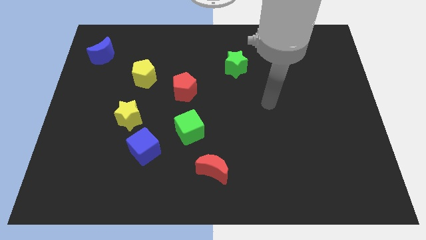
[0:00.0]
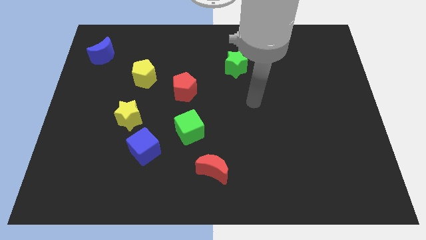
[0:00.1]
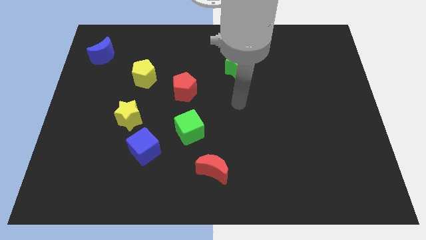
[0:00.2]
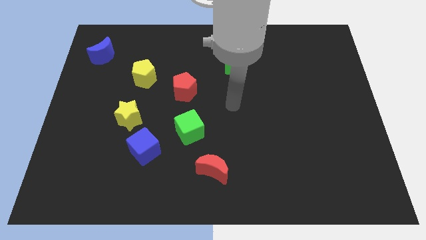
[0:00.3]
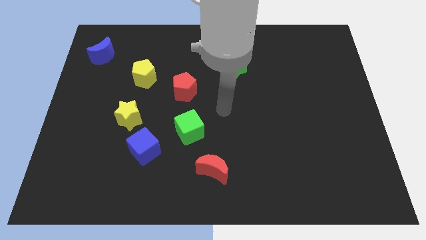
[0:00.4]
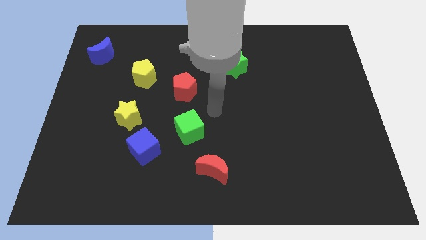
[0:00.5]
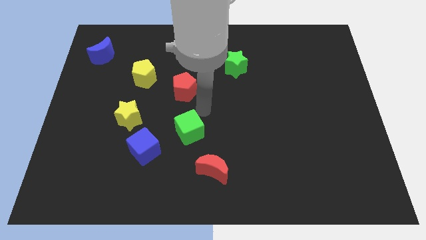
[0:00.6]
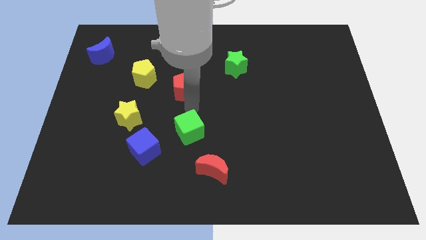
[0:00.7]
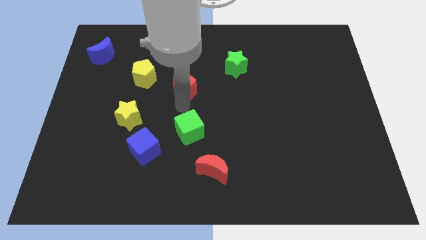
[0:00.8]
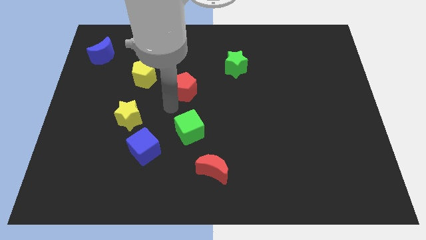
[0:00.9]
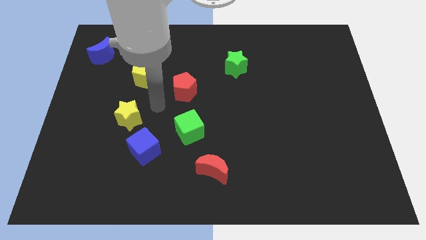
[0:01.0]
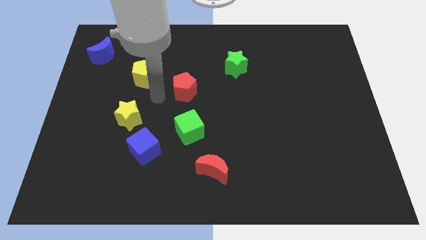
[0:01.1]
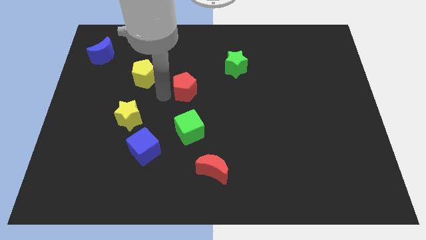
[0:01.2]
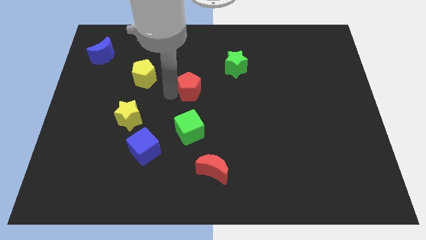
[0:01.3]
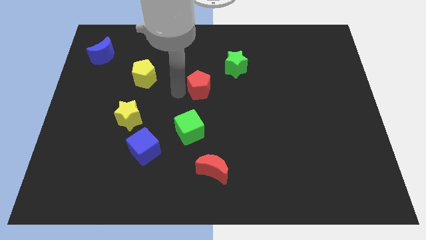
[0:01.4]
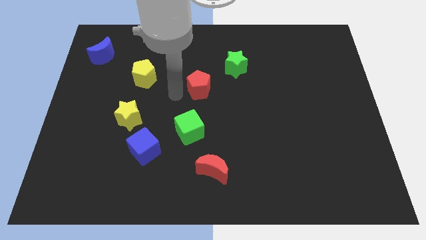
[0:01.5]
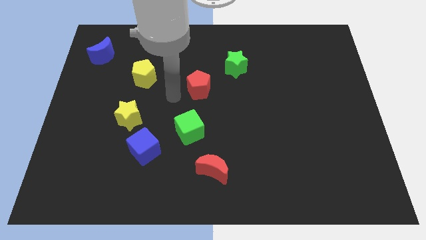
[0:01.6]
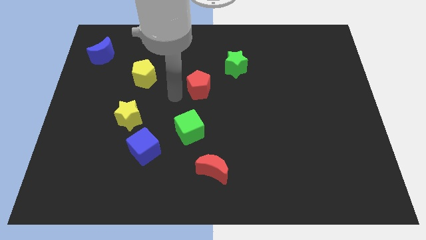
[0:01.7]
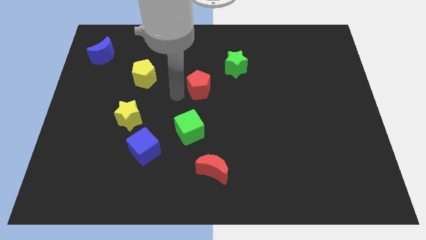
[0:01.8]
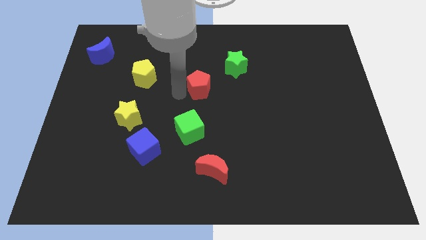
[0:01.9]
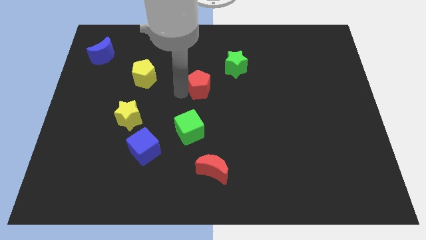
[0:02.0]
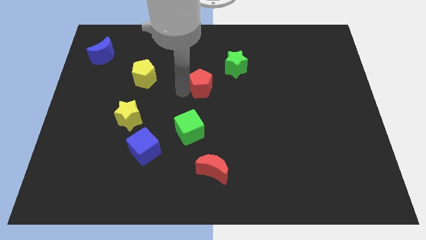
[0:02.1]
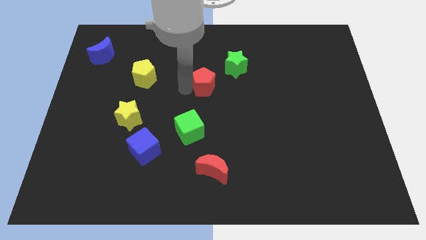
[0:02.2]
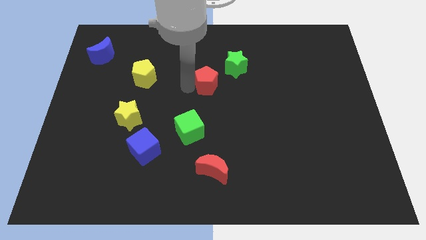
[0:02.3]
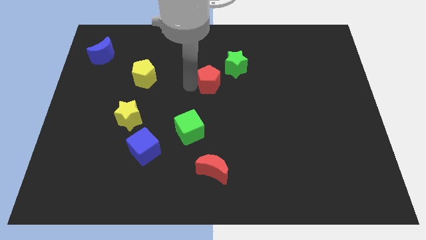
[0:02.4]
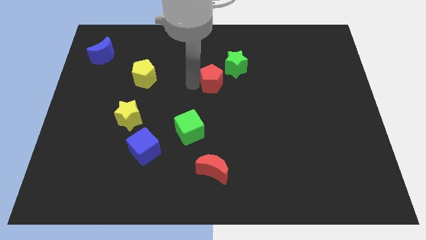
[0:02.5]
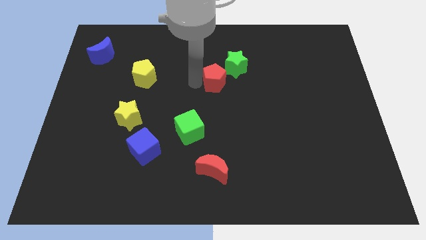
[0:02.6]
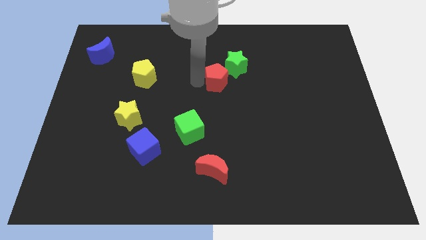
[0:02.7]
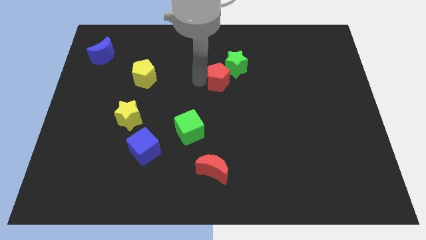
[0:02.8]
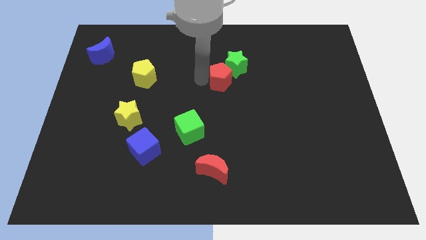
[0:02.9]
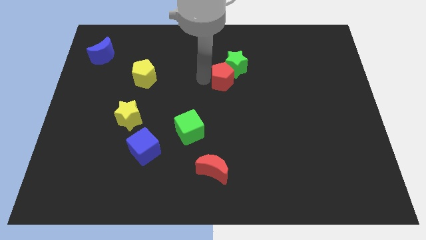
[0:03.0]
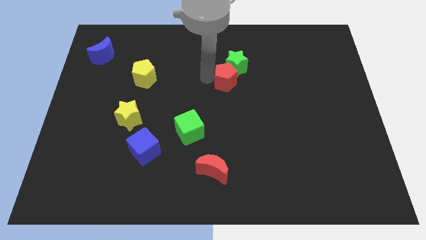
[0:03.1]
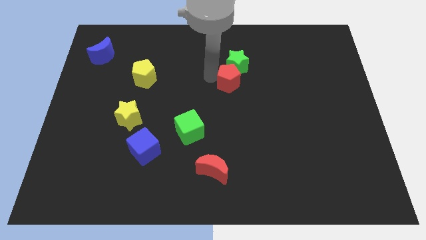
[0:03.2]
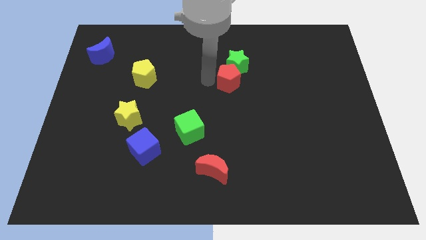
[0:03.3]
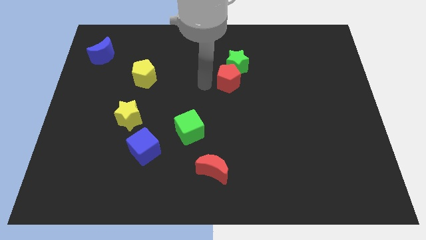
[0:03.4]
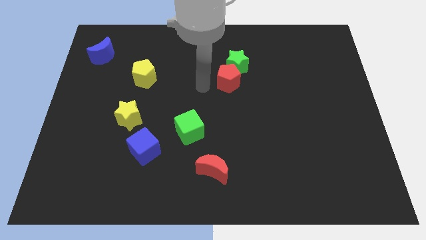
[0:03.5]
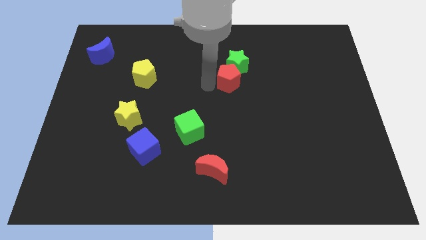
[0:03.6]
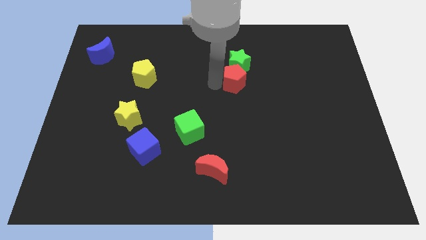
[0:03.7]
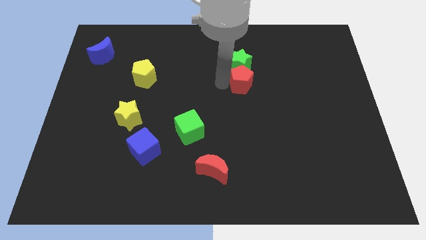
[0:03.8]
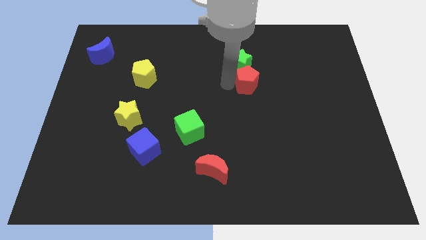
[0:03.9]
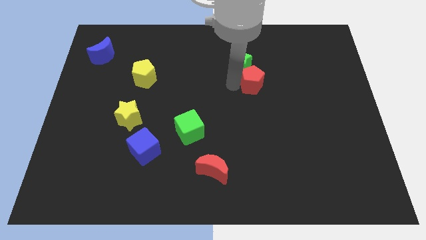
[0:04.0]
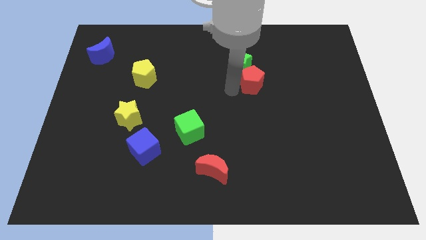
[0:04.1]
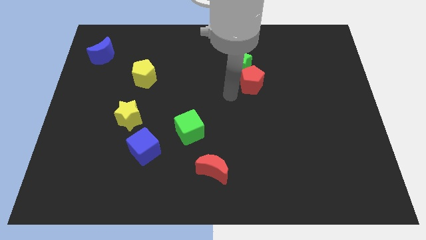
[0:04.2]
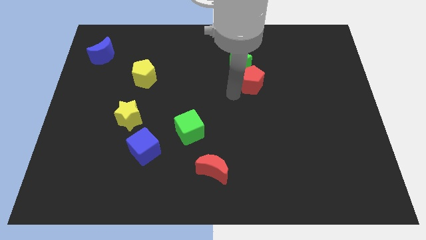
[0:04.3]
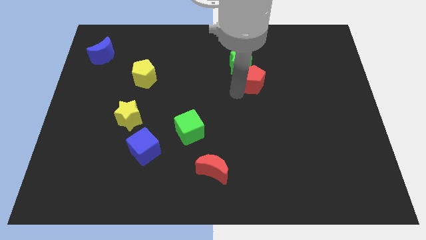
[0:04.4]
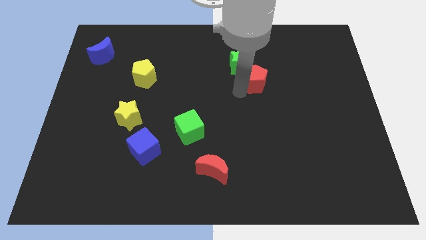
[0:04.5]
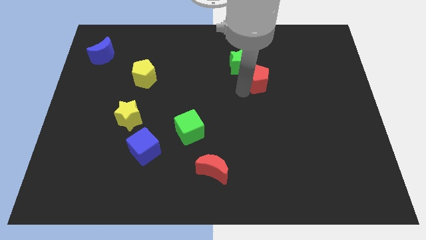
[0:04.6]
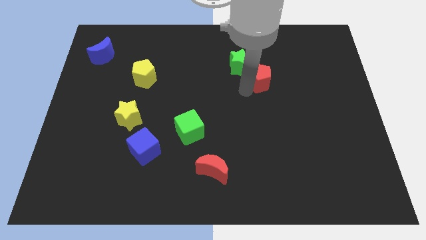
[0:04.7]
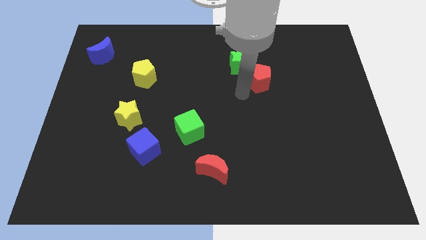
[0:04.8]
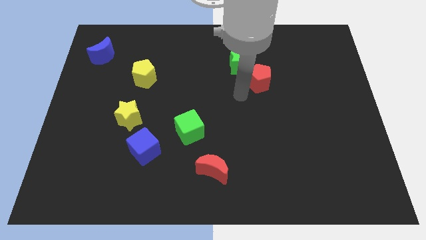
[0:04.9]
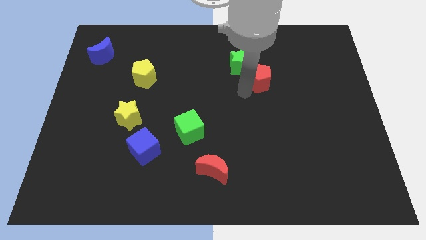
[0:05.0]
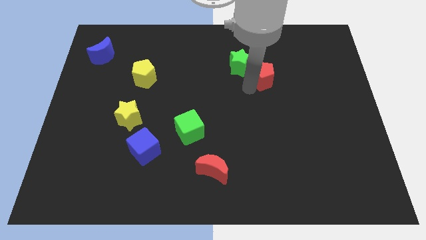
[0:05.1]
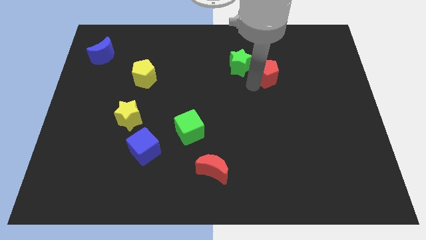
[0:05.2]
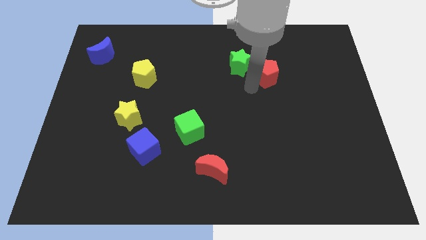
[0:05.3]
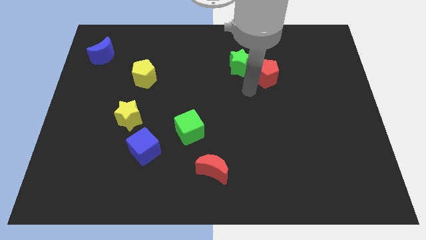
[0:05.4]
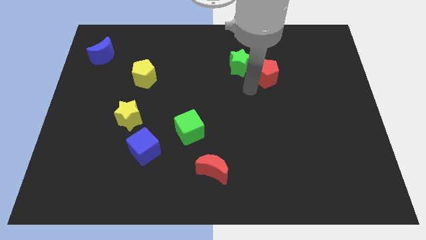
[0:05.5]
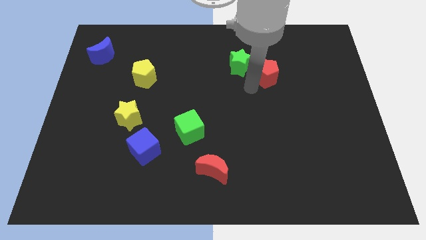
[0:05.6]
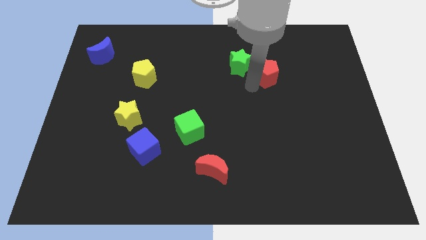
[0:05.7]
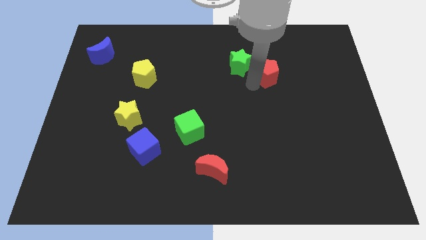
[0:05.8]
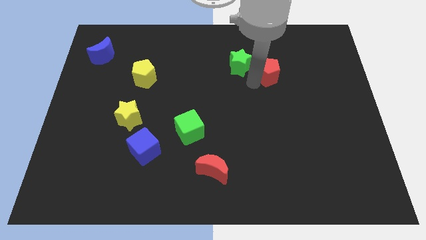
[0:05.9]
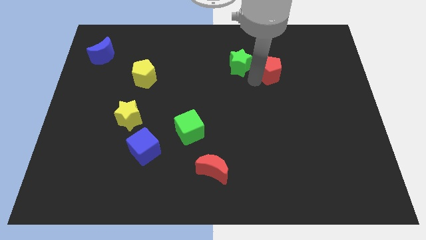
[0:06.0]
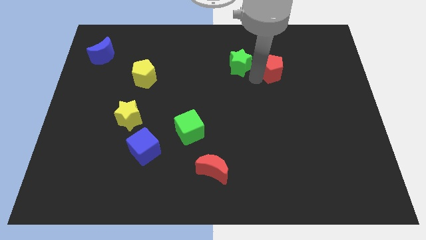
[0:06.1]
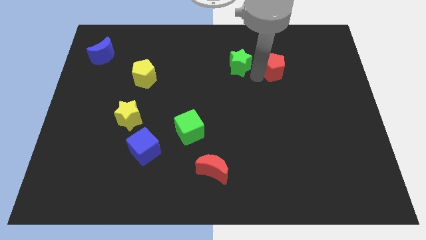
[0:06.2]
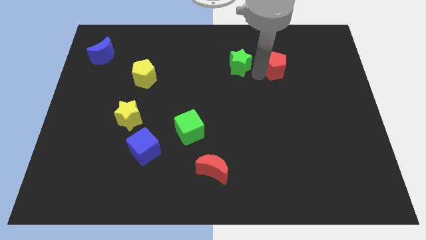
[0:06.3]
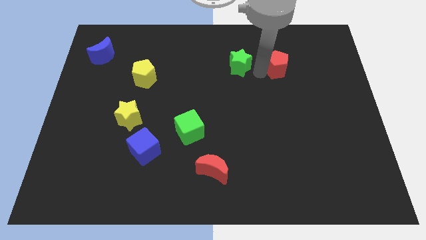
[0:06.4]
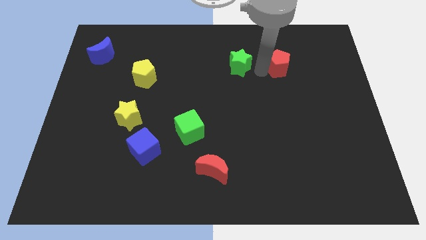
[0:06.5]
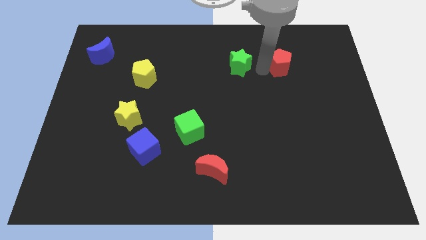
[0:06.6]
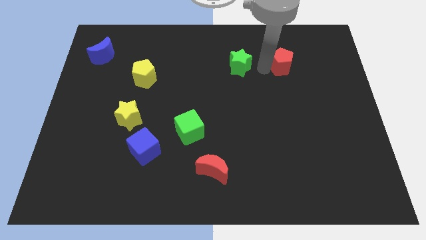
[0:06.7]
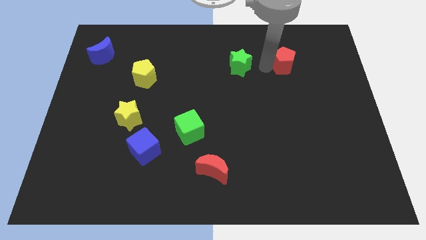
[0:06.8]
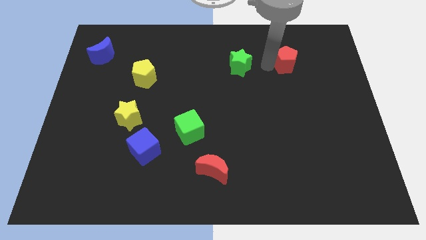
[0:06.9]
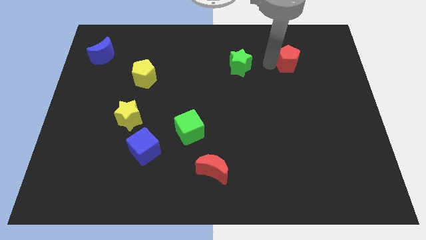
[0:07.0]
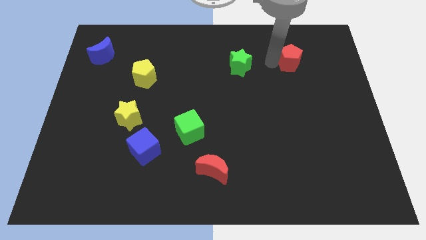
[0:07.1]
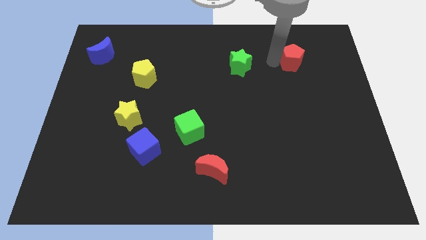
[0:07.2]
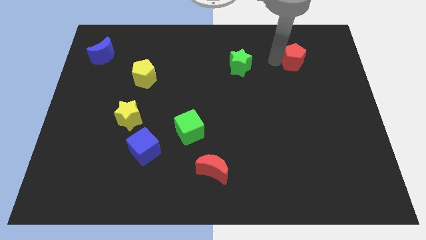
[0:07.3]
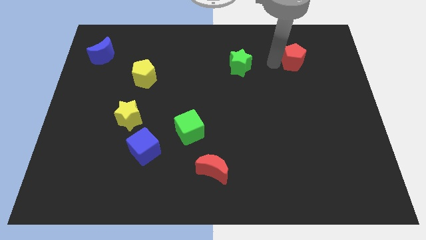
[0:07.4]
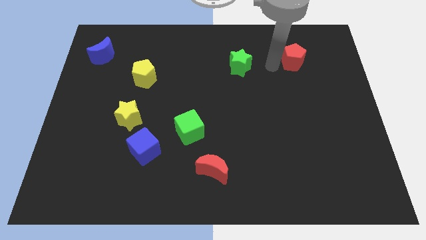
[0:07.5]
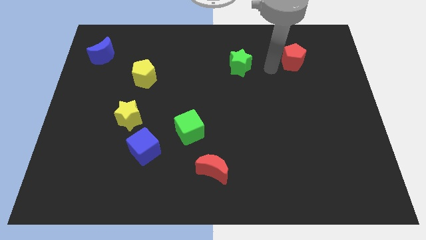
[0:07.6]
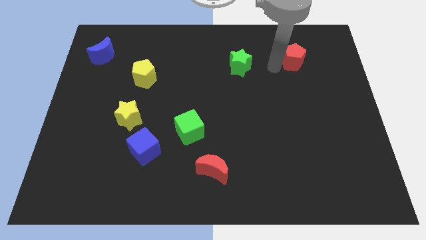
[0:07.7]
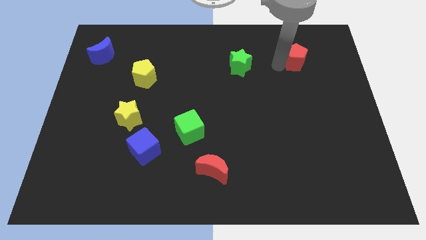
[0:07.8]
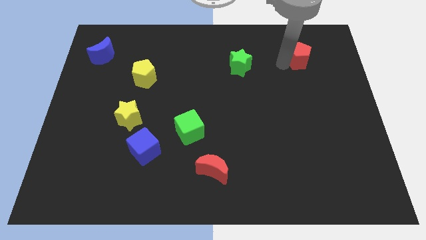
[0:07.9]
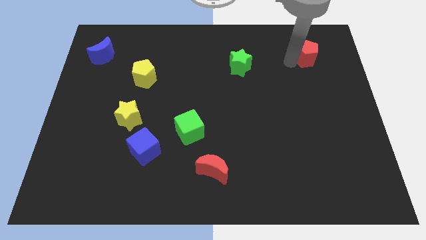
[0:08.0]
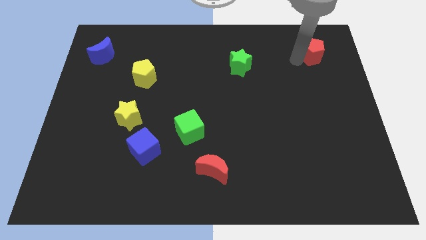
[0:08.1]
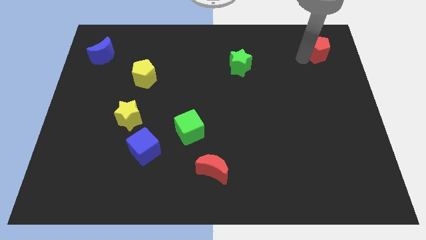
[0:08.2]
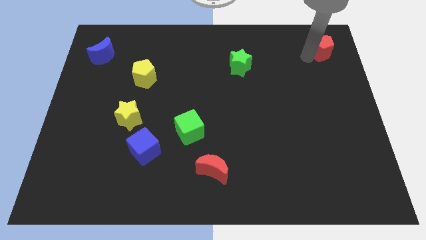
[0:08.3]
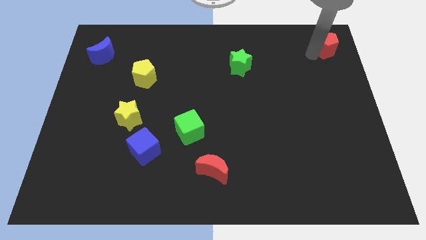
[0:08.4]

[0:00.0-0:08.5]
slide the red pentagon to the upper right corner
